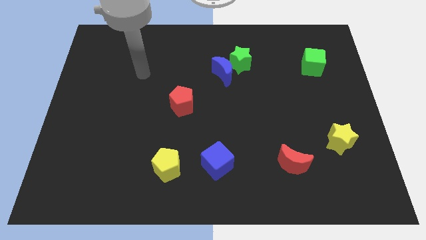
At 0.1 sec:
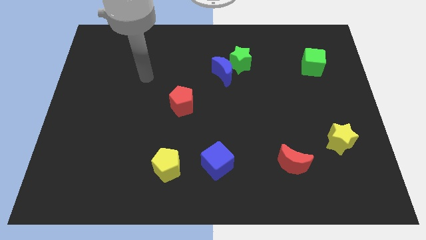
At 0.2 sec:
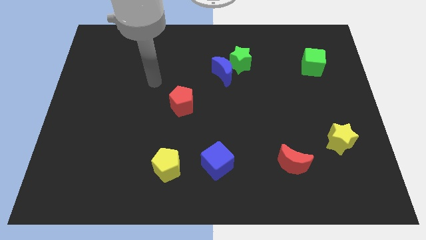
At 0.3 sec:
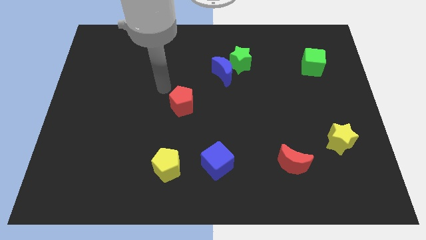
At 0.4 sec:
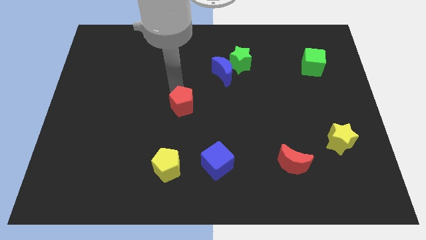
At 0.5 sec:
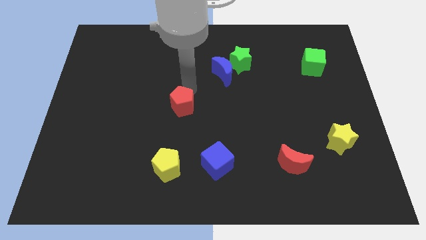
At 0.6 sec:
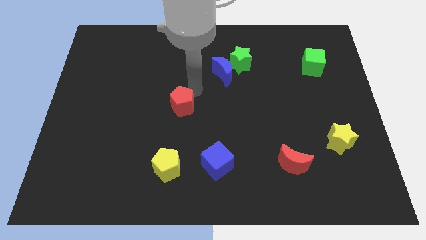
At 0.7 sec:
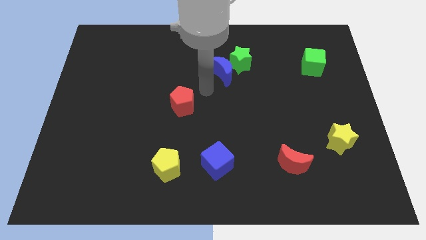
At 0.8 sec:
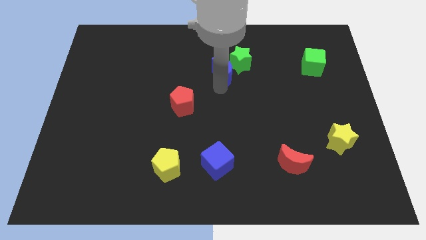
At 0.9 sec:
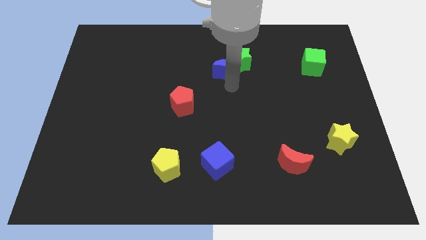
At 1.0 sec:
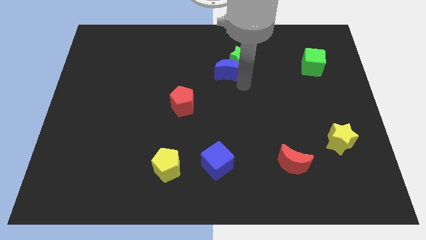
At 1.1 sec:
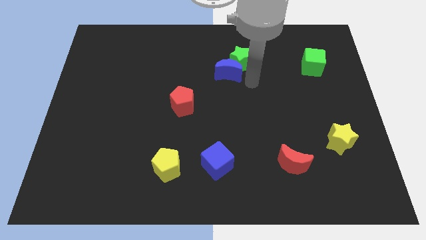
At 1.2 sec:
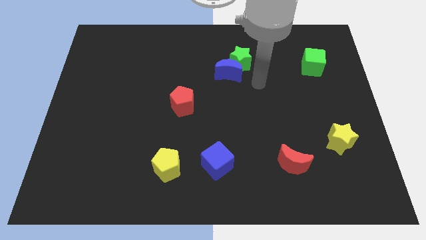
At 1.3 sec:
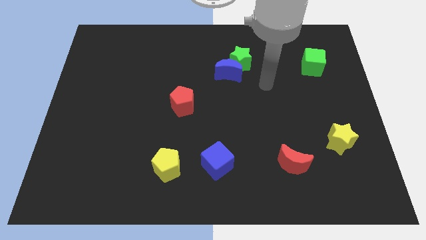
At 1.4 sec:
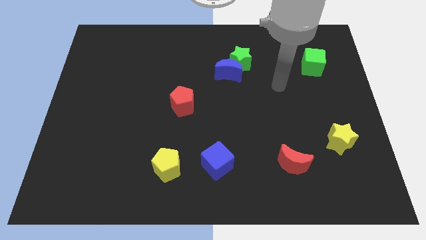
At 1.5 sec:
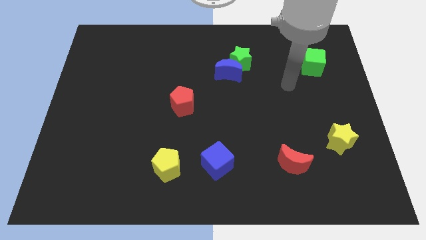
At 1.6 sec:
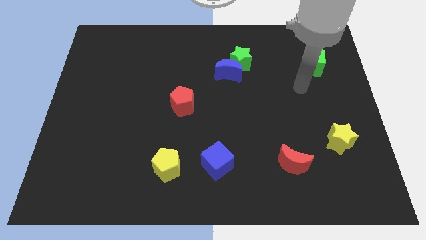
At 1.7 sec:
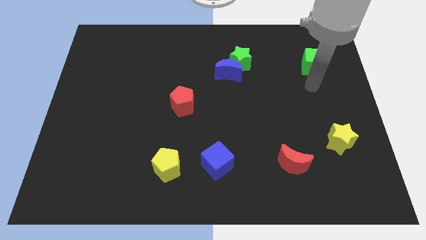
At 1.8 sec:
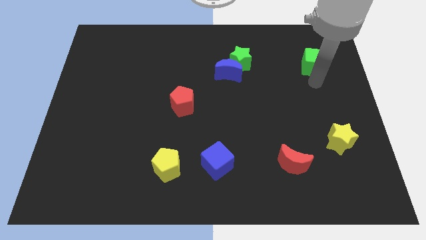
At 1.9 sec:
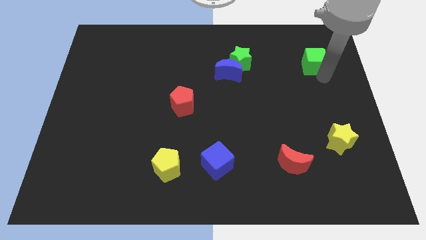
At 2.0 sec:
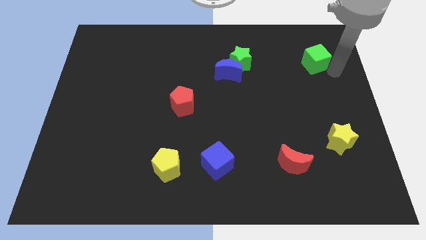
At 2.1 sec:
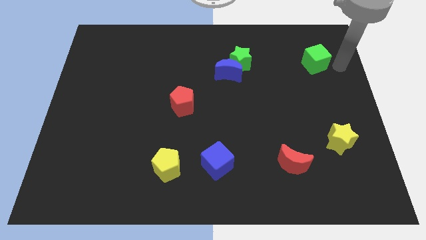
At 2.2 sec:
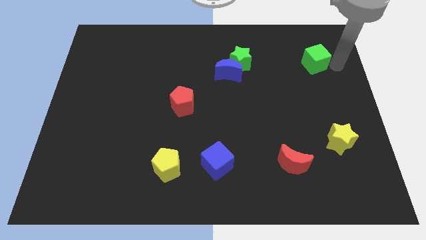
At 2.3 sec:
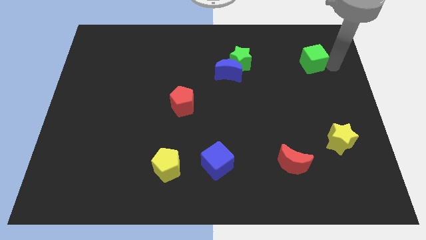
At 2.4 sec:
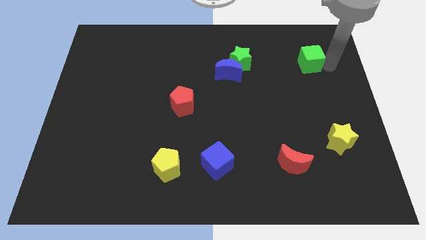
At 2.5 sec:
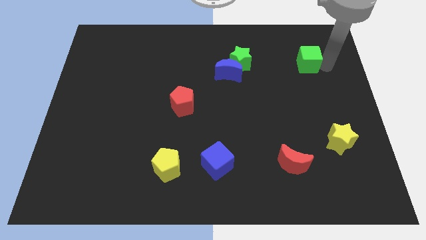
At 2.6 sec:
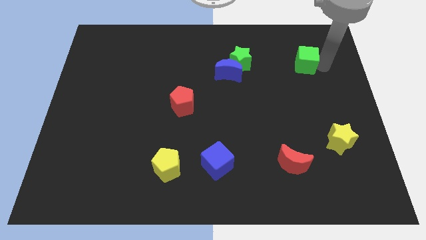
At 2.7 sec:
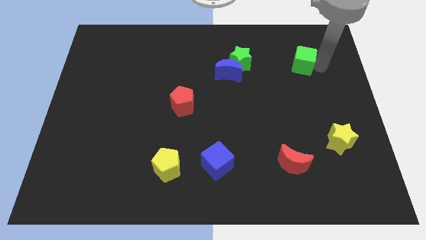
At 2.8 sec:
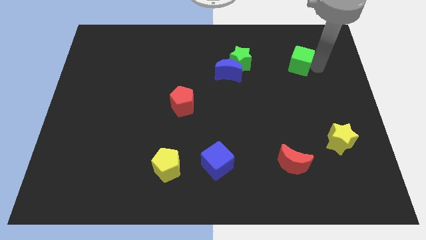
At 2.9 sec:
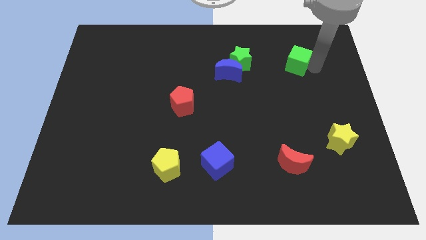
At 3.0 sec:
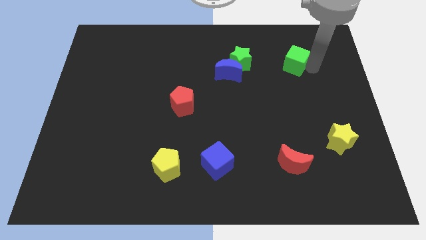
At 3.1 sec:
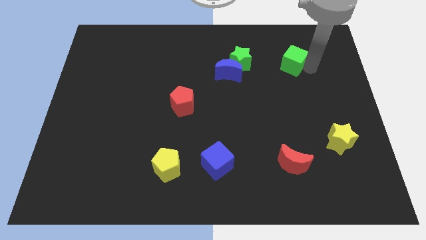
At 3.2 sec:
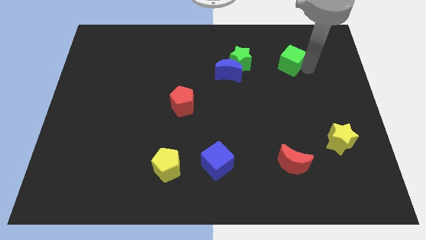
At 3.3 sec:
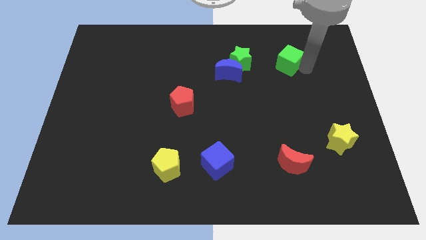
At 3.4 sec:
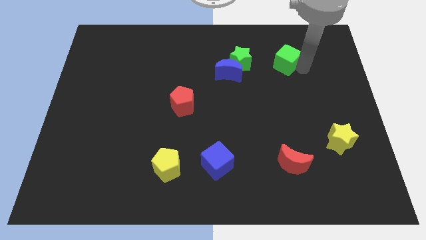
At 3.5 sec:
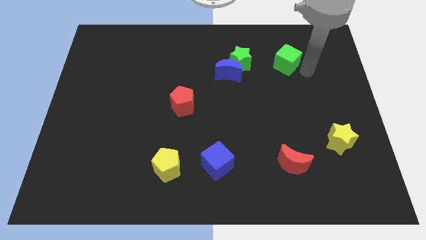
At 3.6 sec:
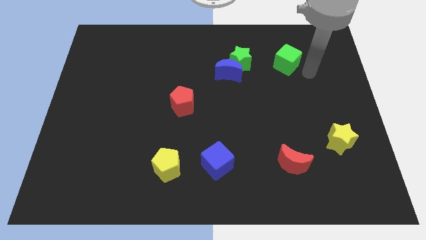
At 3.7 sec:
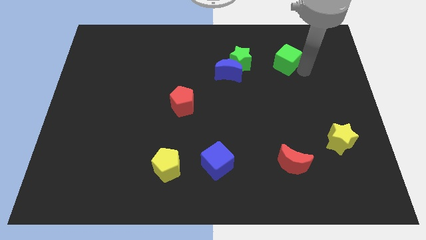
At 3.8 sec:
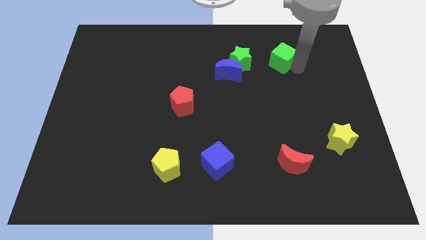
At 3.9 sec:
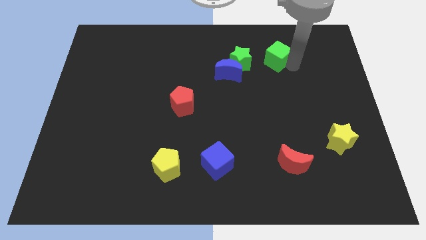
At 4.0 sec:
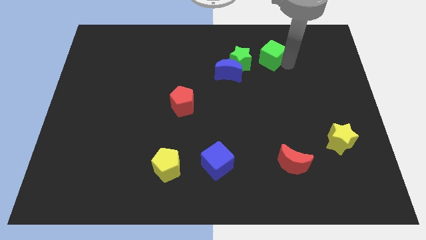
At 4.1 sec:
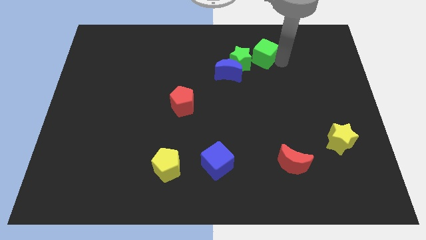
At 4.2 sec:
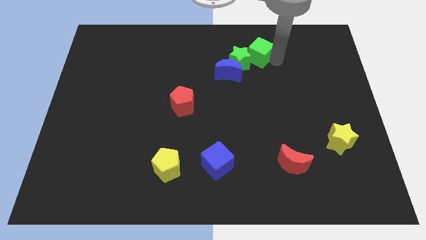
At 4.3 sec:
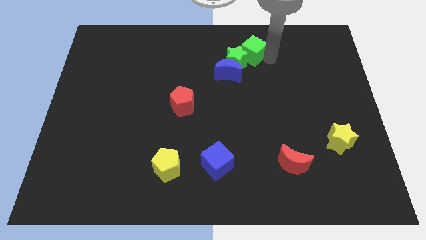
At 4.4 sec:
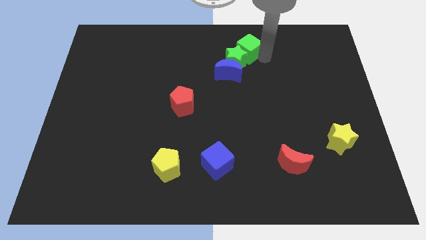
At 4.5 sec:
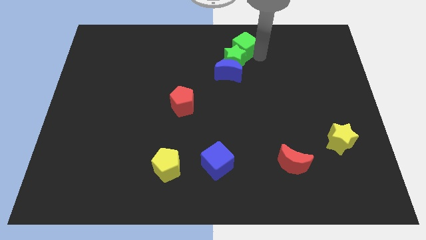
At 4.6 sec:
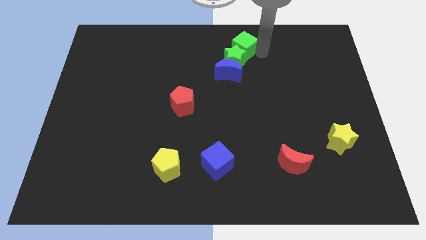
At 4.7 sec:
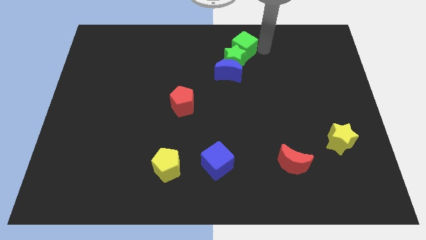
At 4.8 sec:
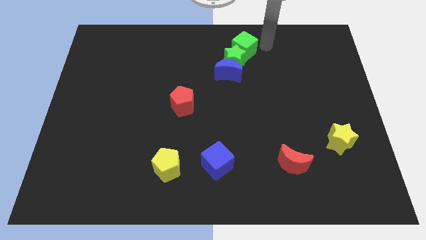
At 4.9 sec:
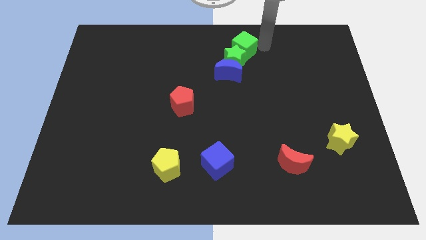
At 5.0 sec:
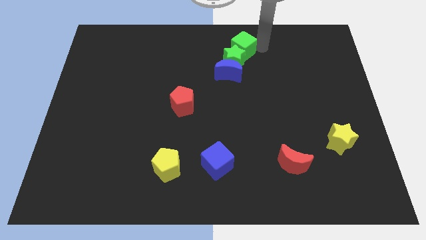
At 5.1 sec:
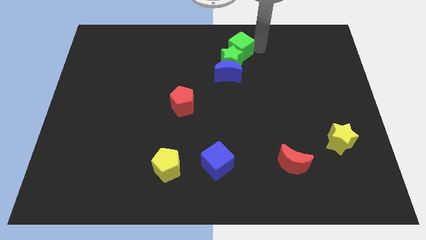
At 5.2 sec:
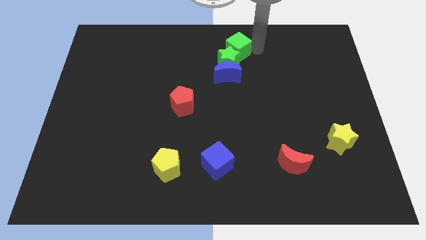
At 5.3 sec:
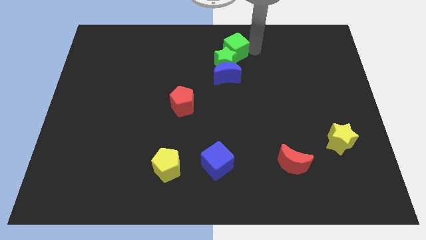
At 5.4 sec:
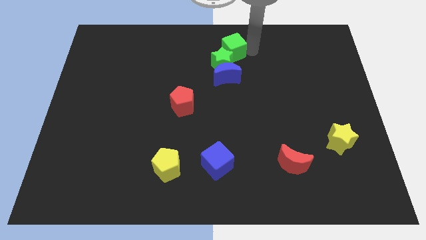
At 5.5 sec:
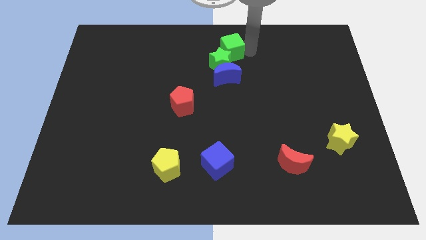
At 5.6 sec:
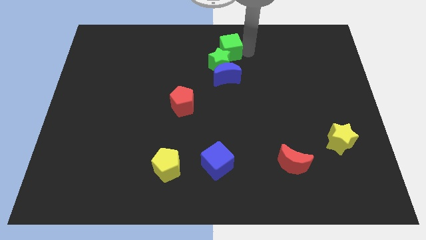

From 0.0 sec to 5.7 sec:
push the green cube to the left

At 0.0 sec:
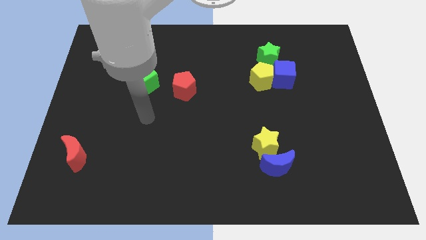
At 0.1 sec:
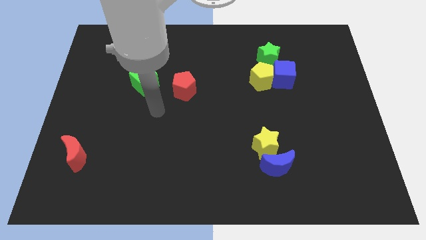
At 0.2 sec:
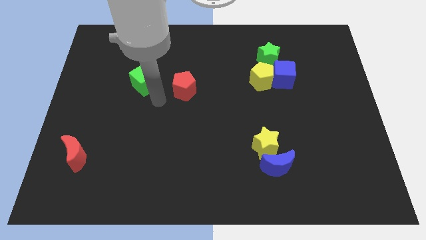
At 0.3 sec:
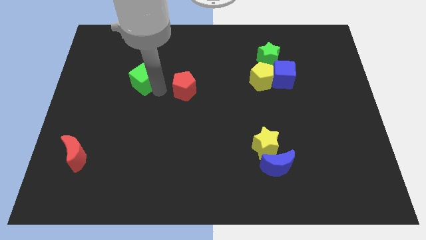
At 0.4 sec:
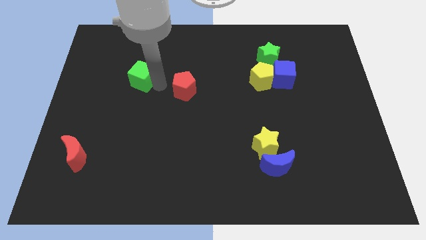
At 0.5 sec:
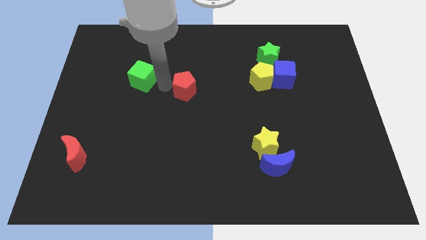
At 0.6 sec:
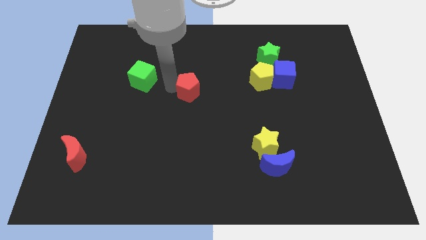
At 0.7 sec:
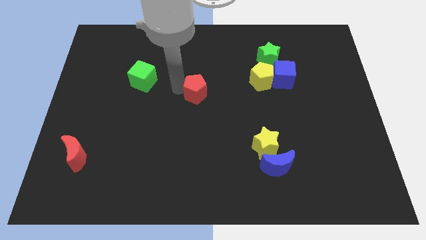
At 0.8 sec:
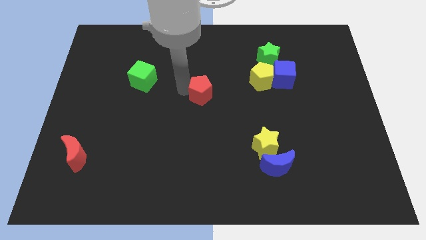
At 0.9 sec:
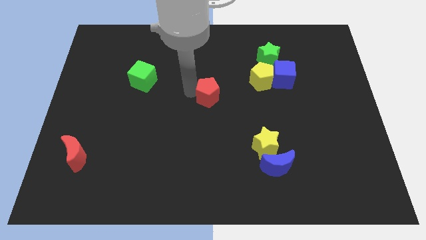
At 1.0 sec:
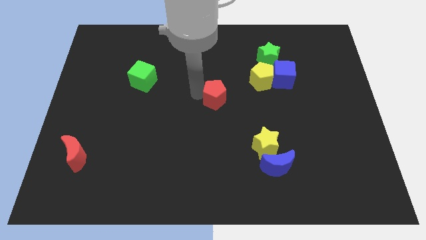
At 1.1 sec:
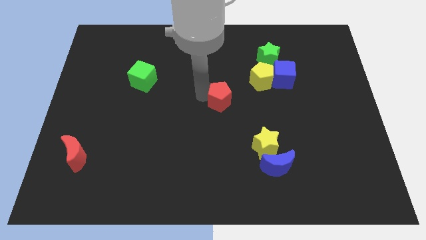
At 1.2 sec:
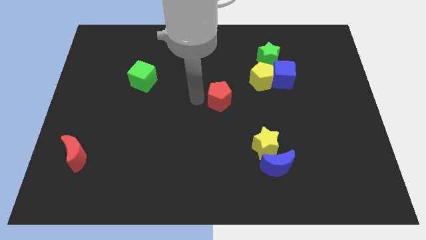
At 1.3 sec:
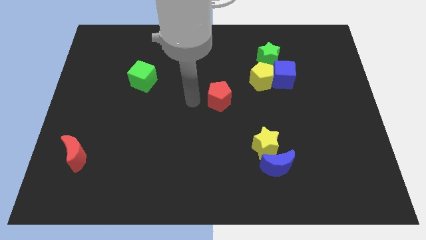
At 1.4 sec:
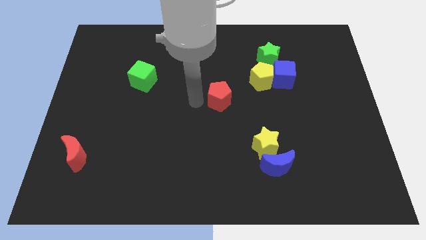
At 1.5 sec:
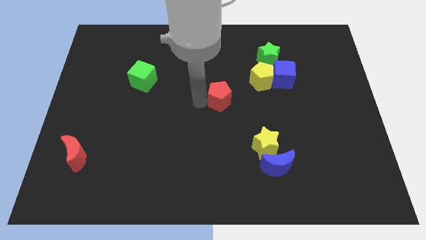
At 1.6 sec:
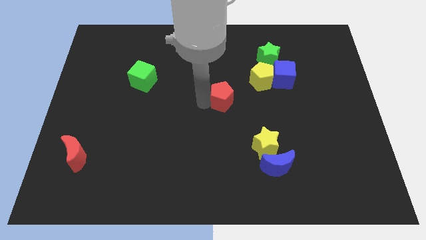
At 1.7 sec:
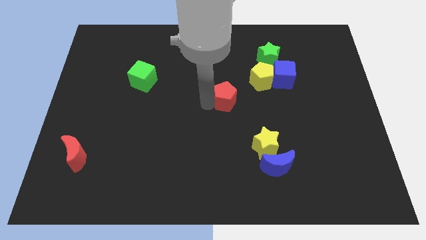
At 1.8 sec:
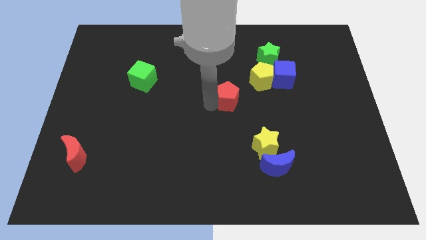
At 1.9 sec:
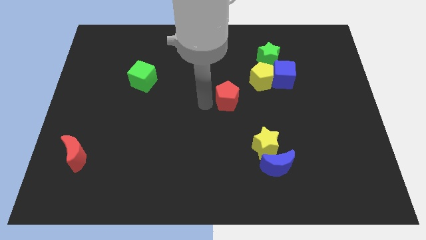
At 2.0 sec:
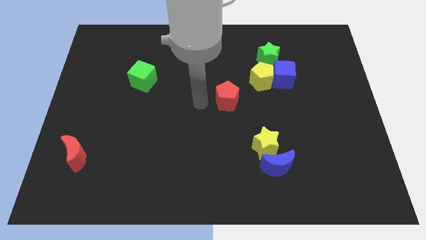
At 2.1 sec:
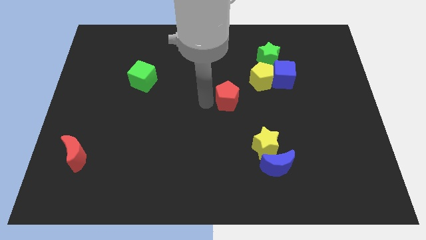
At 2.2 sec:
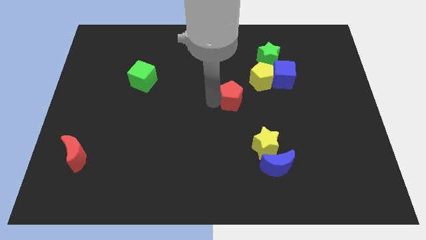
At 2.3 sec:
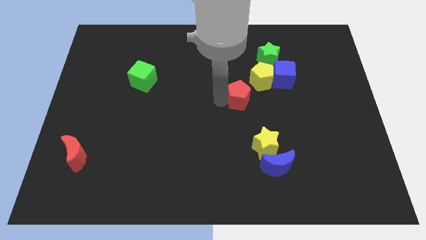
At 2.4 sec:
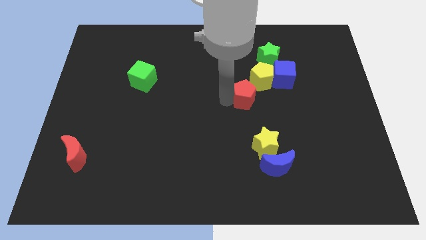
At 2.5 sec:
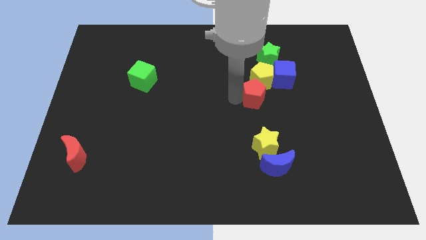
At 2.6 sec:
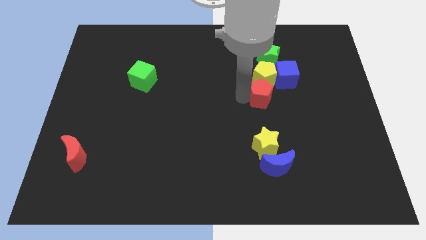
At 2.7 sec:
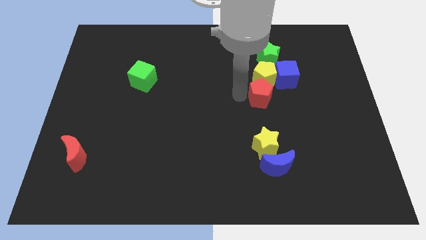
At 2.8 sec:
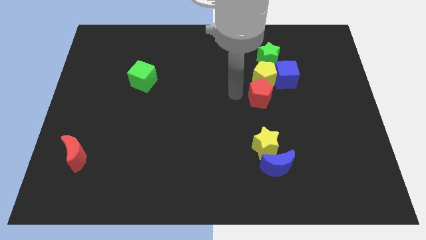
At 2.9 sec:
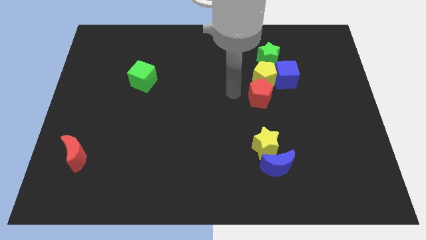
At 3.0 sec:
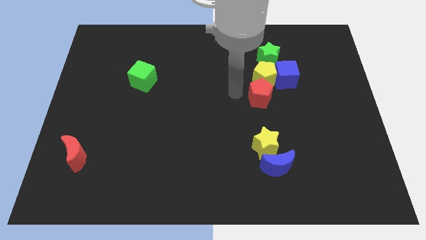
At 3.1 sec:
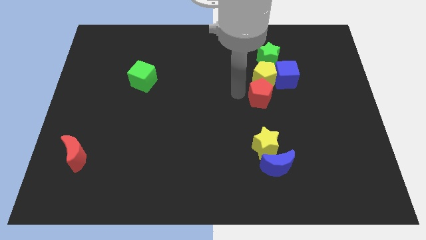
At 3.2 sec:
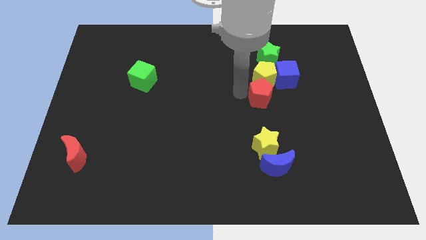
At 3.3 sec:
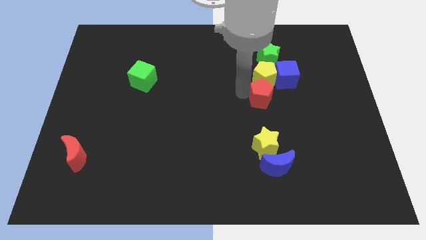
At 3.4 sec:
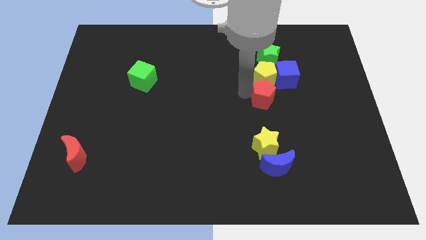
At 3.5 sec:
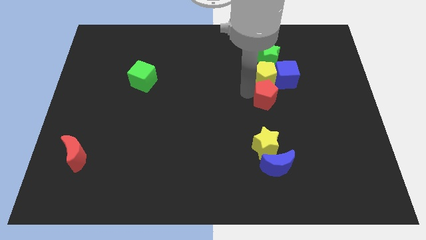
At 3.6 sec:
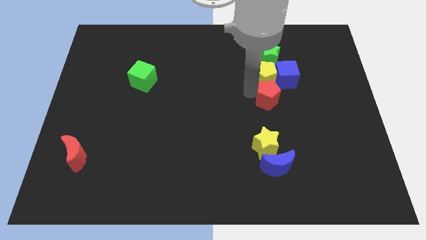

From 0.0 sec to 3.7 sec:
move the red pentagon right
